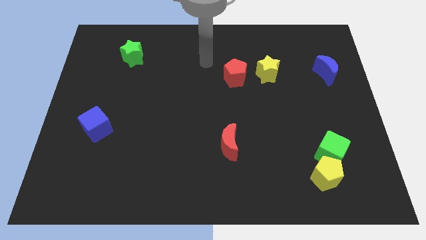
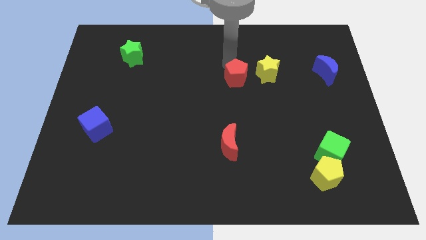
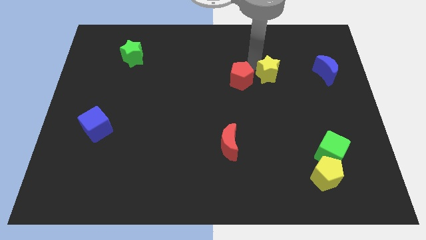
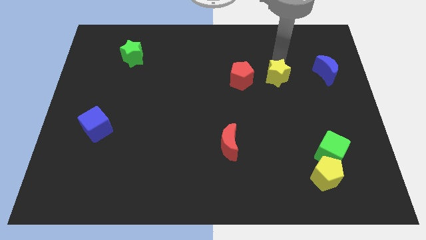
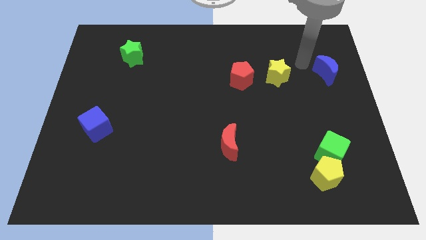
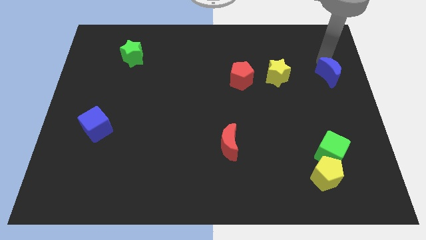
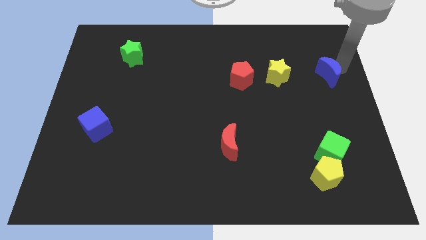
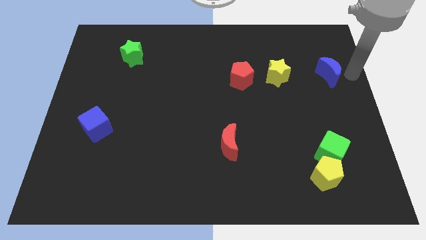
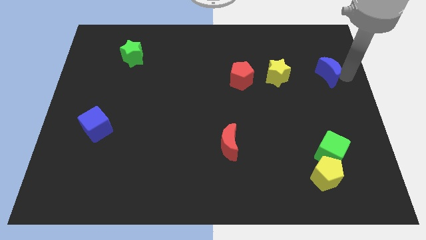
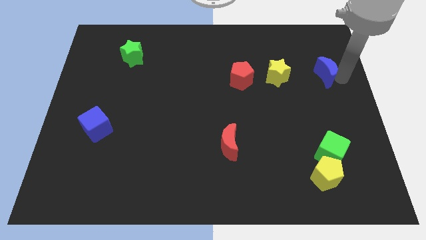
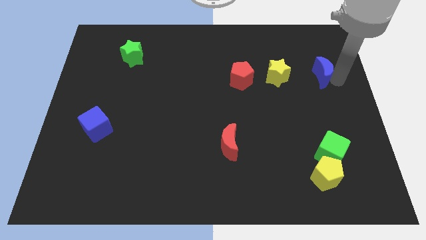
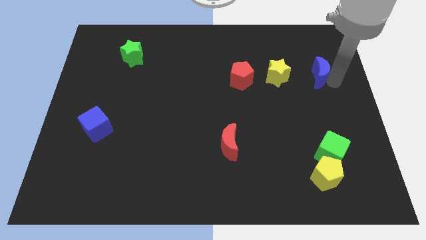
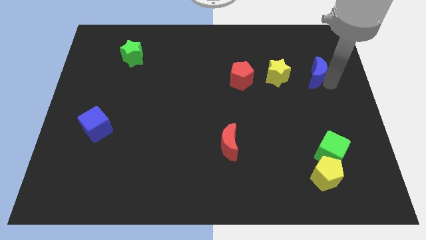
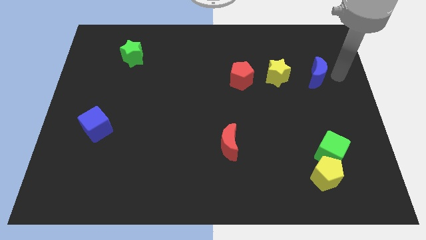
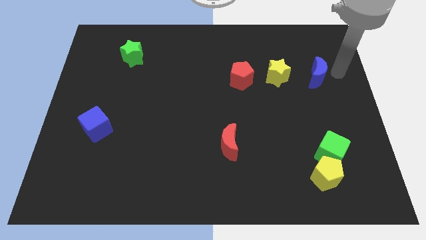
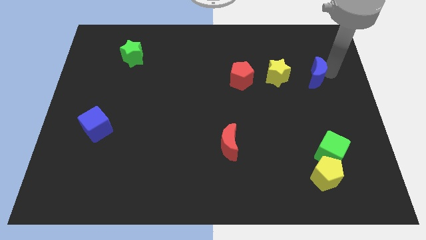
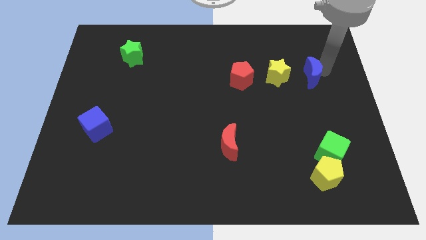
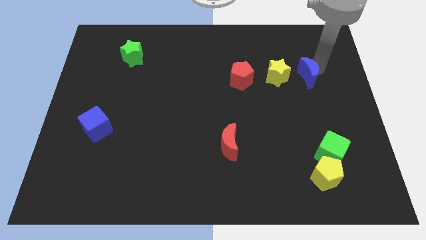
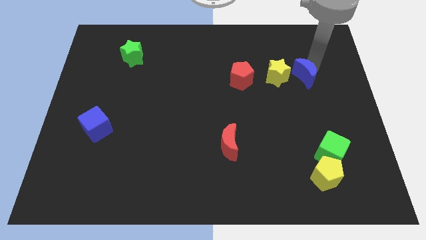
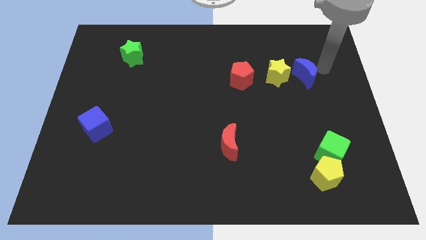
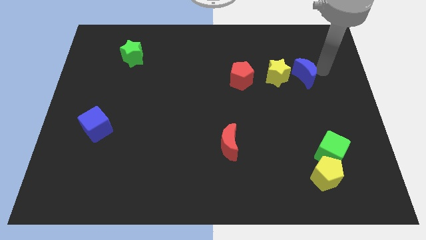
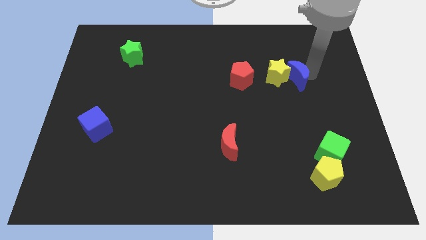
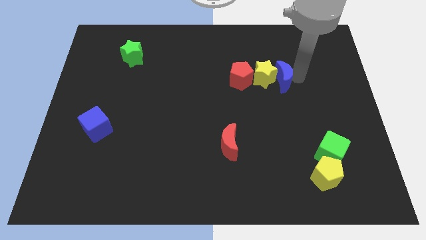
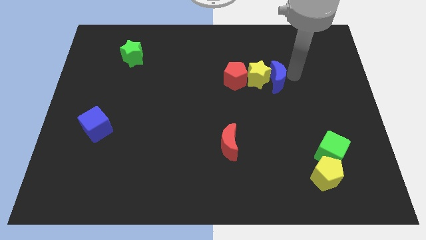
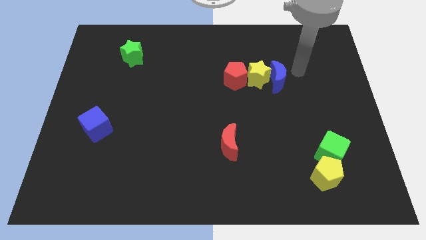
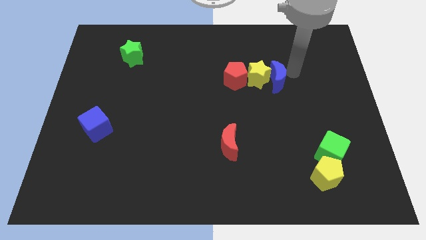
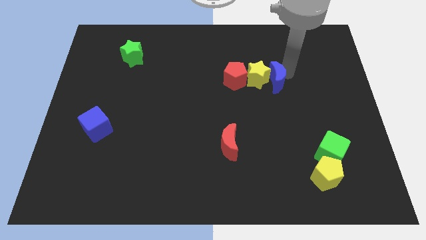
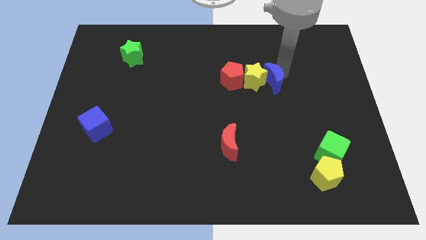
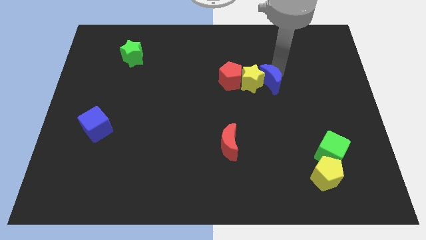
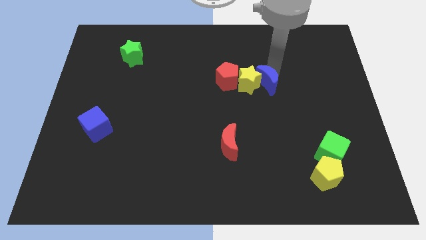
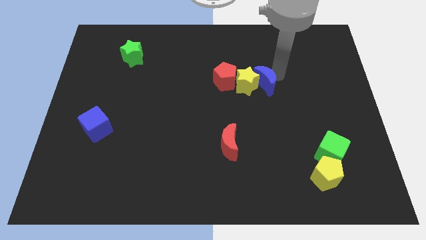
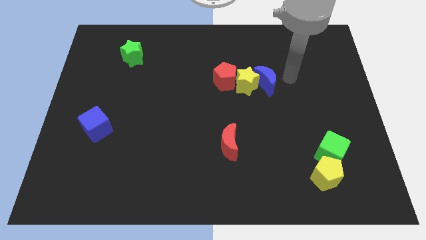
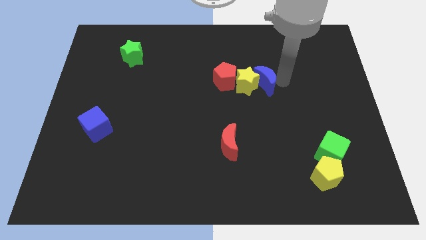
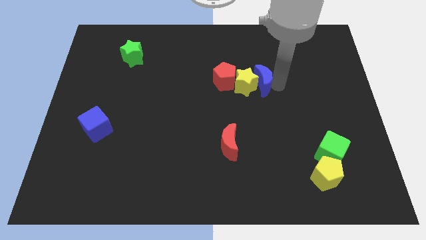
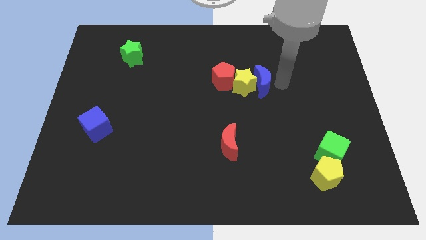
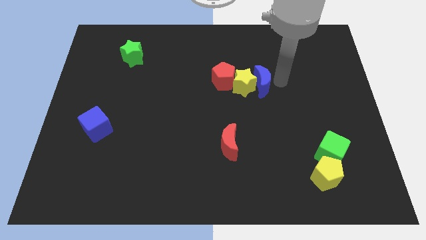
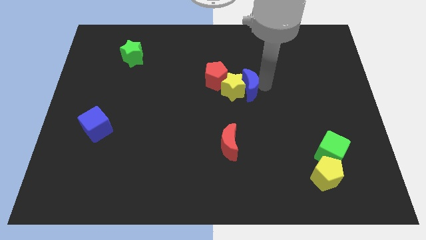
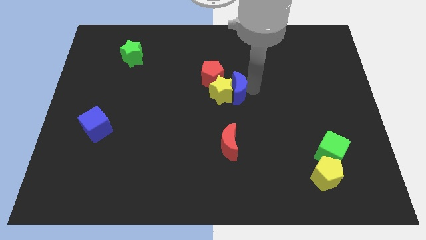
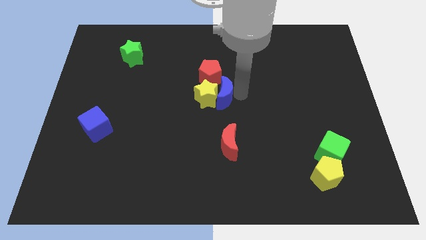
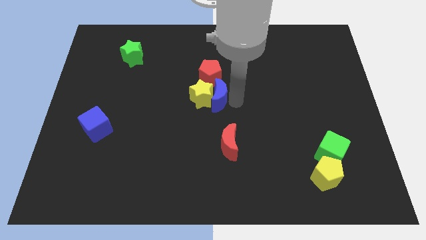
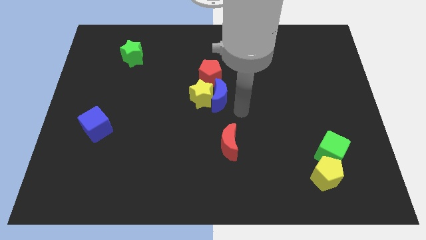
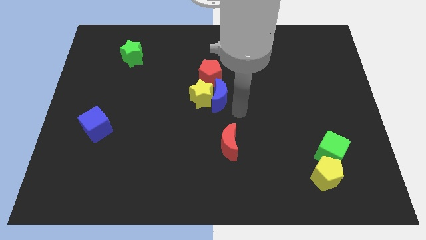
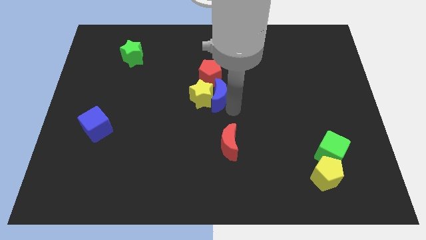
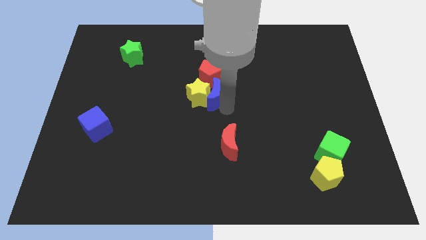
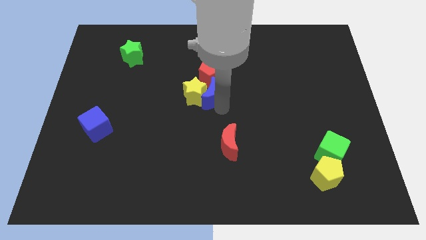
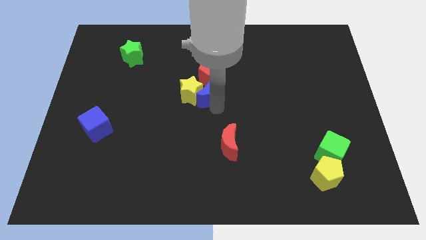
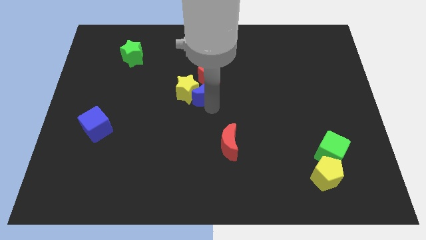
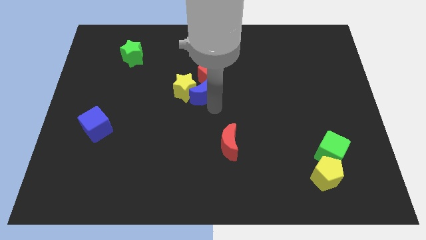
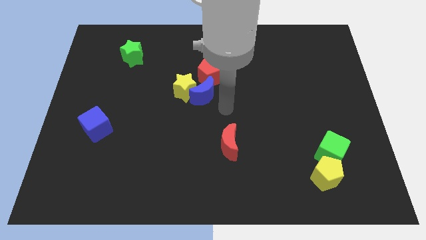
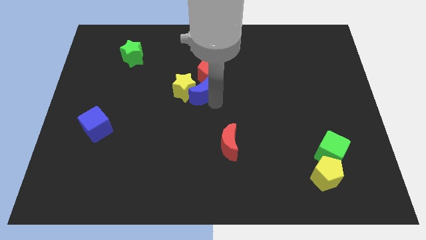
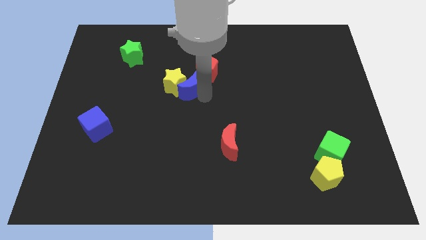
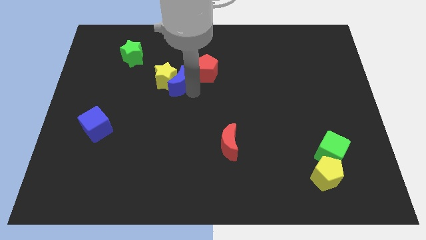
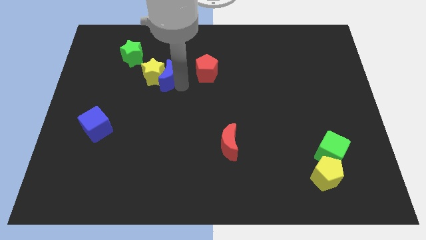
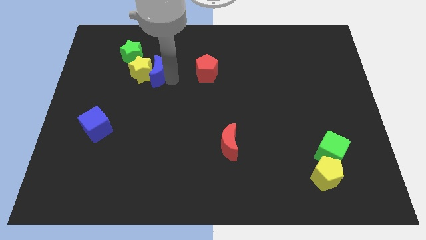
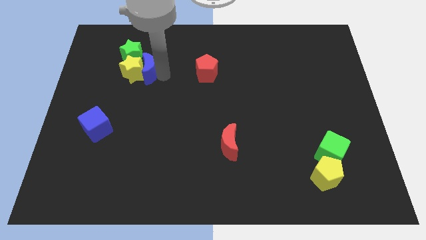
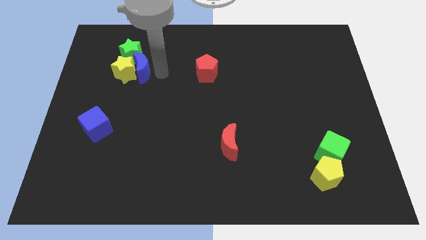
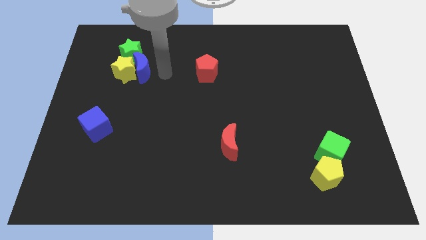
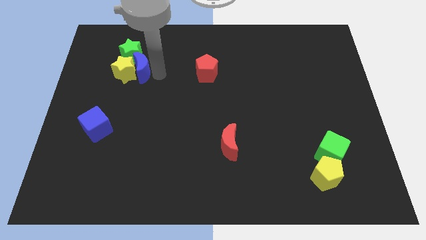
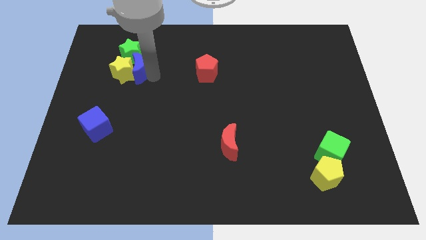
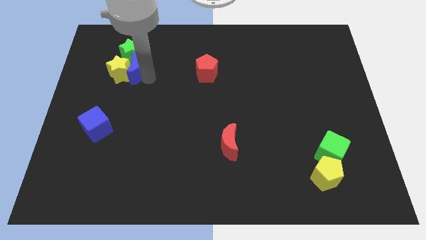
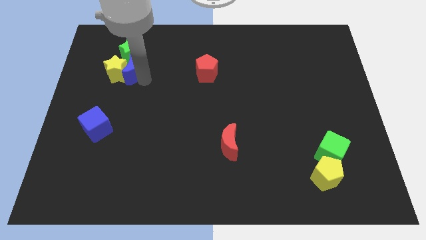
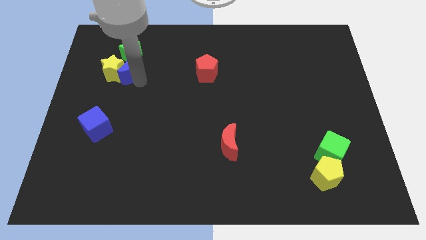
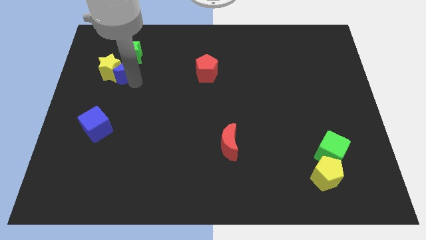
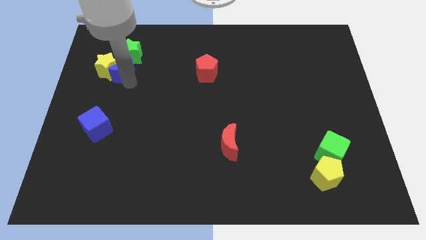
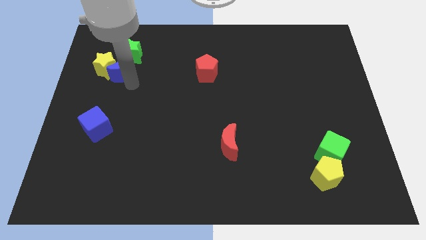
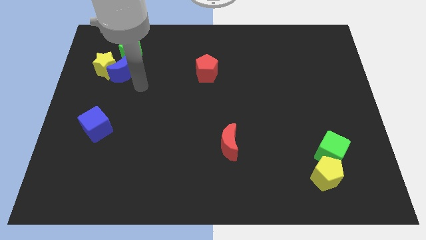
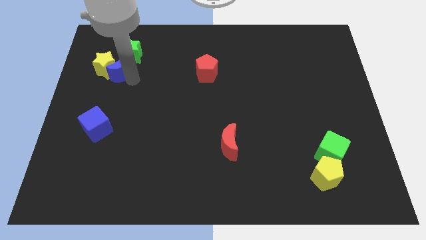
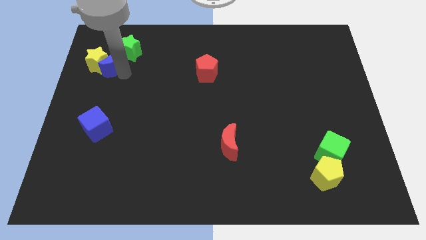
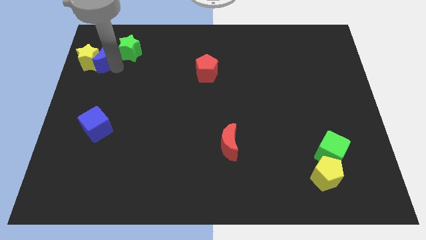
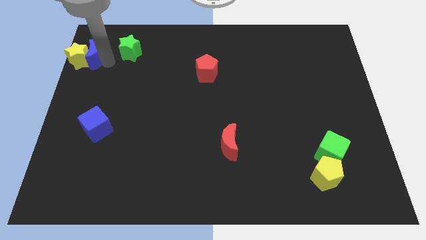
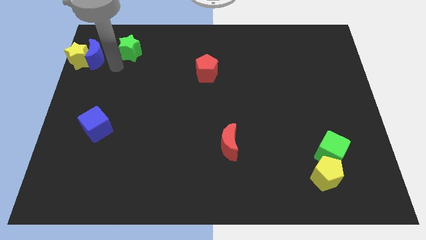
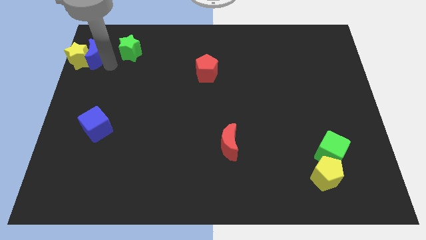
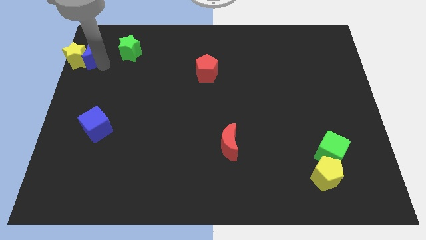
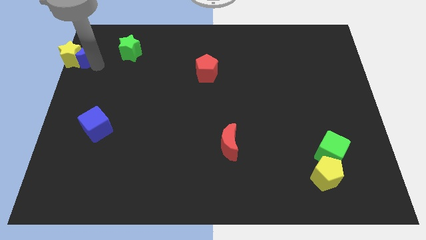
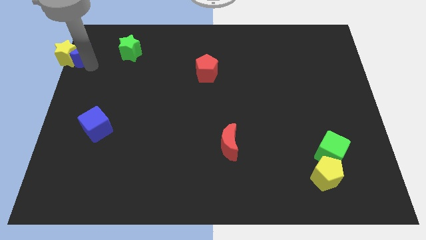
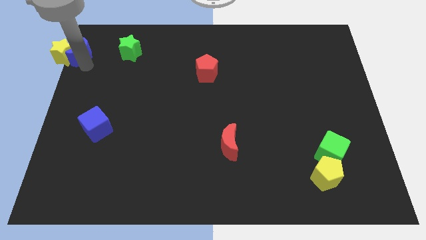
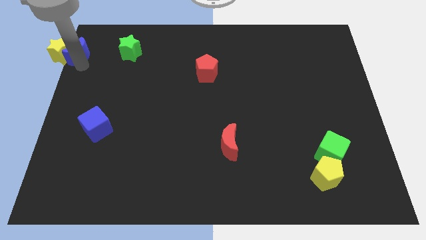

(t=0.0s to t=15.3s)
move the blue moon to the top left
